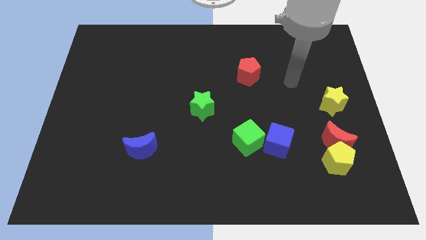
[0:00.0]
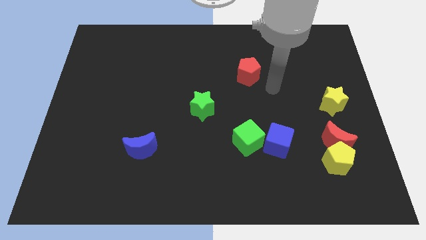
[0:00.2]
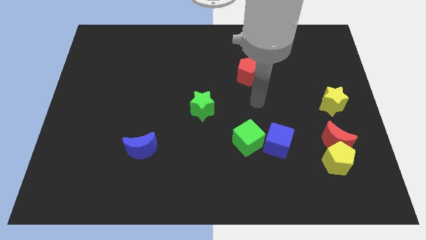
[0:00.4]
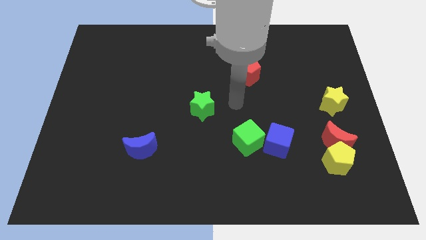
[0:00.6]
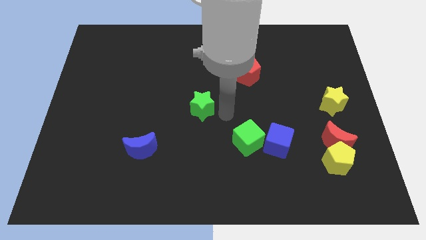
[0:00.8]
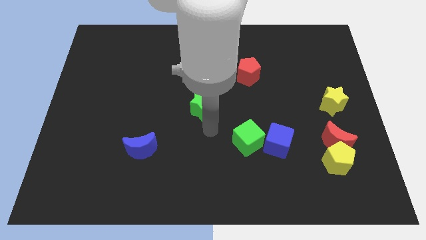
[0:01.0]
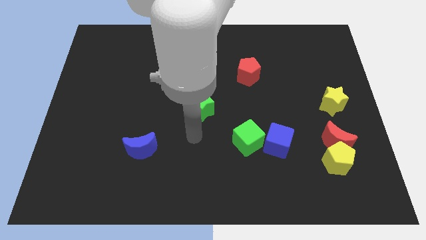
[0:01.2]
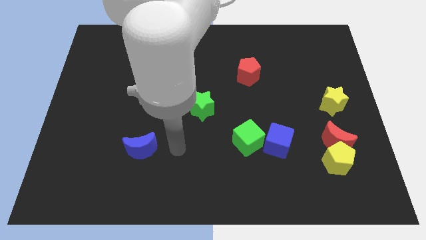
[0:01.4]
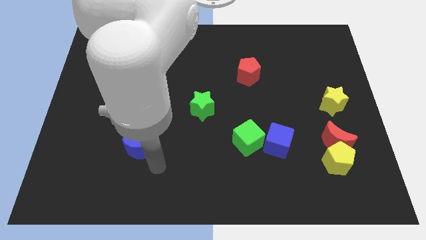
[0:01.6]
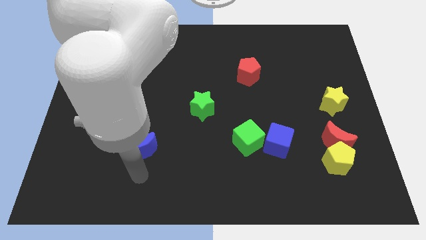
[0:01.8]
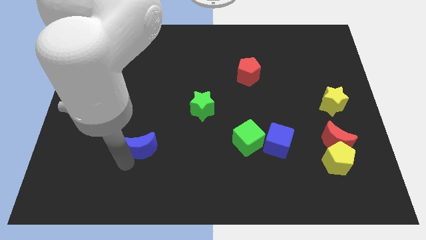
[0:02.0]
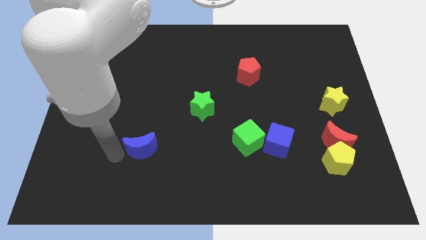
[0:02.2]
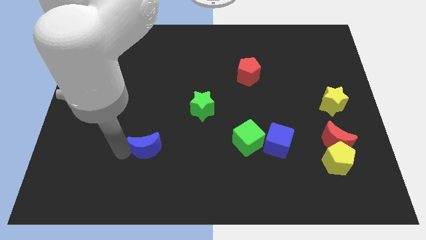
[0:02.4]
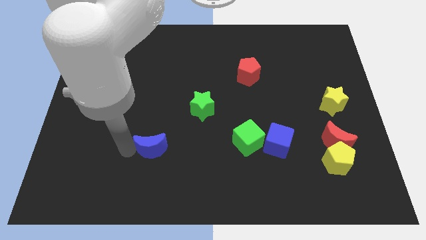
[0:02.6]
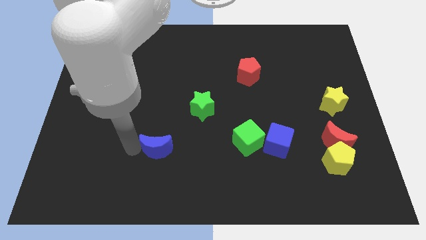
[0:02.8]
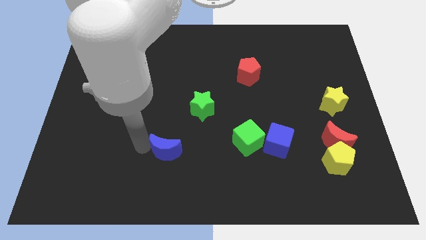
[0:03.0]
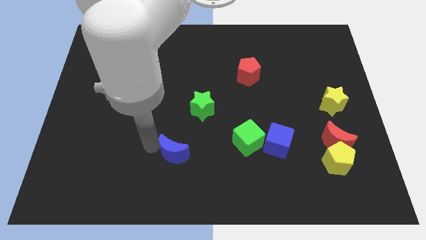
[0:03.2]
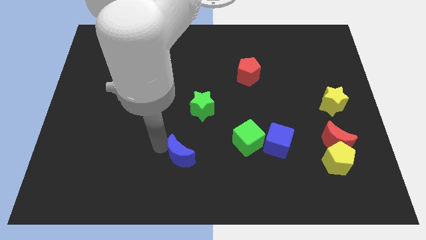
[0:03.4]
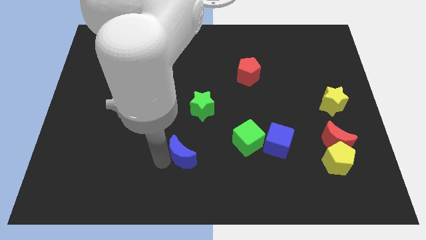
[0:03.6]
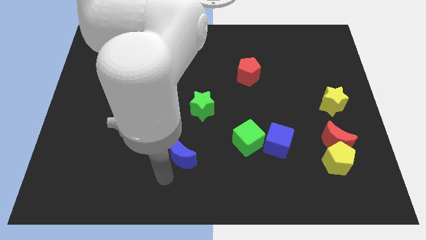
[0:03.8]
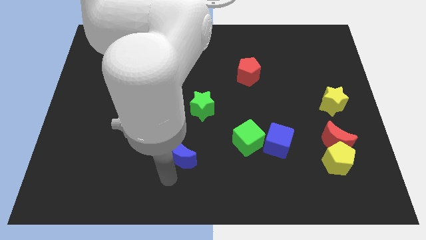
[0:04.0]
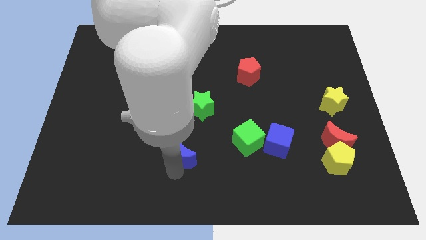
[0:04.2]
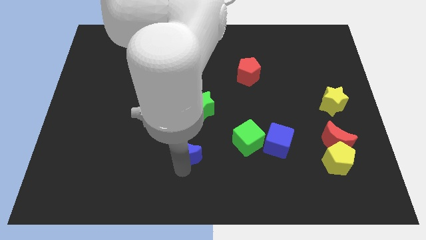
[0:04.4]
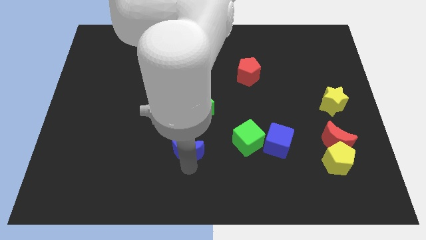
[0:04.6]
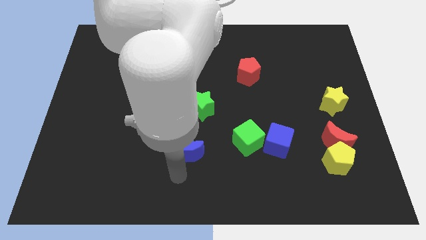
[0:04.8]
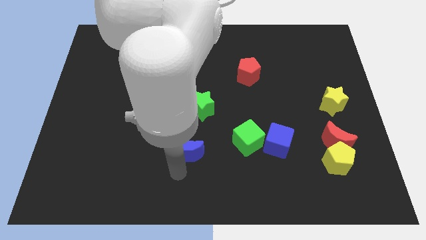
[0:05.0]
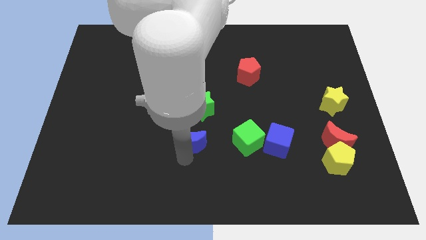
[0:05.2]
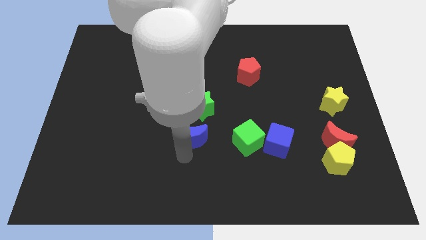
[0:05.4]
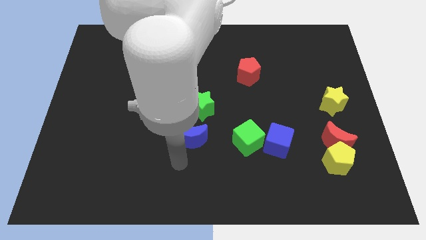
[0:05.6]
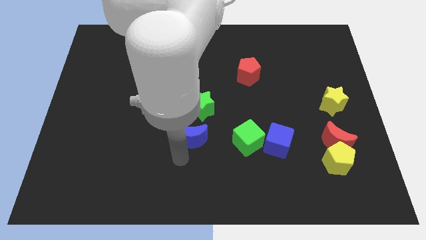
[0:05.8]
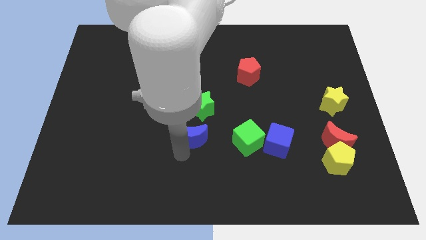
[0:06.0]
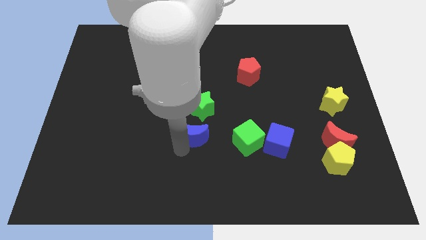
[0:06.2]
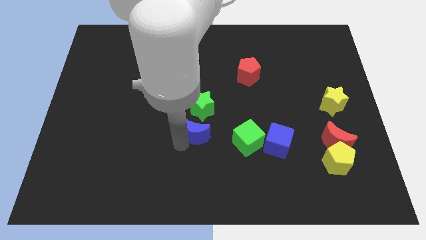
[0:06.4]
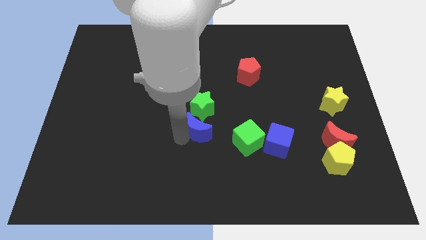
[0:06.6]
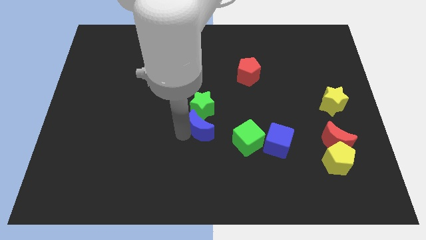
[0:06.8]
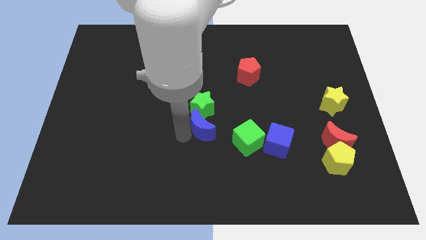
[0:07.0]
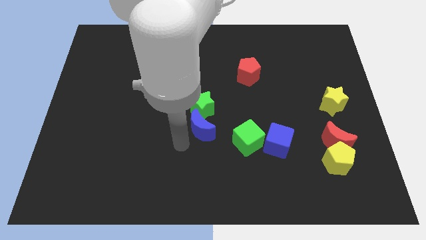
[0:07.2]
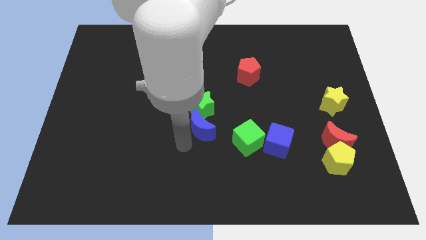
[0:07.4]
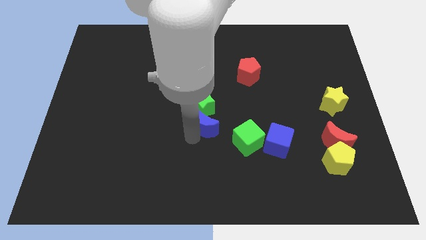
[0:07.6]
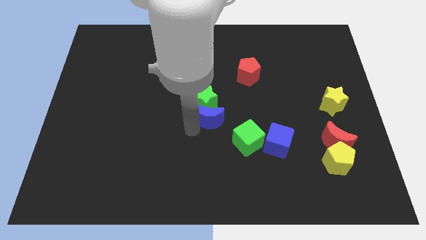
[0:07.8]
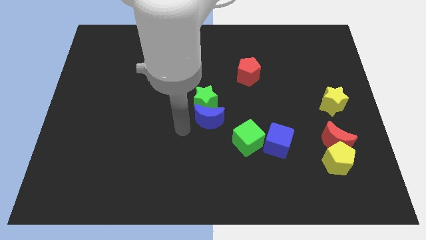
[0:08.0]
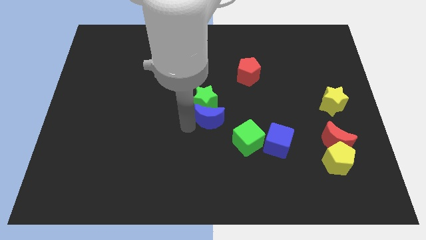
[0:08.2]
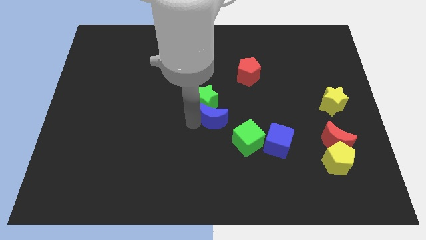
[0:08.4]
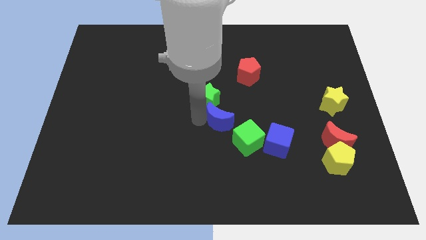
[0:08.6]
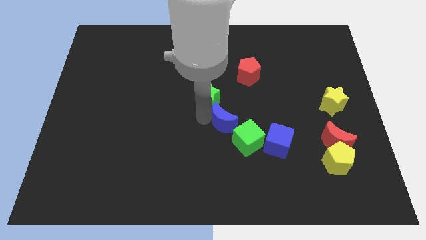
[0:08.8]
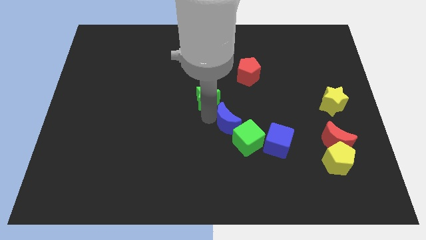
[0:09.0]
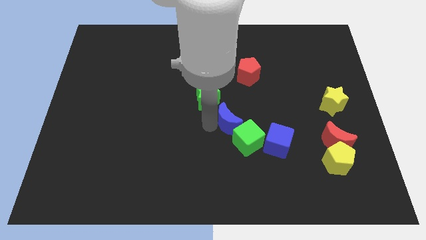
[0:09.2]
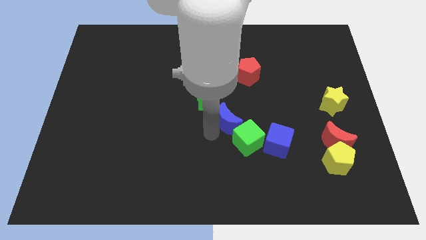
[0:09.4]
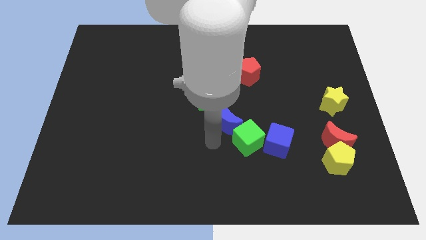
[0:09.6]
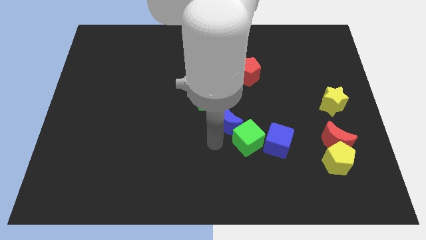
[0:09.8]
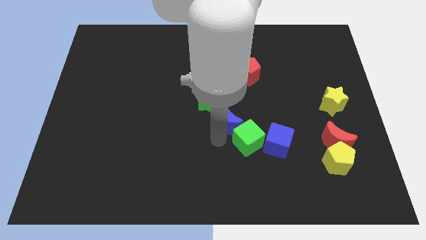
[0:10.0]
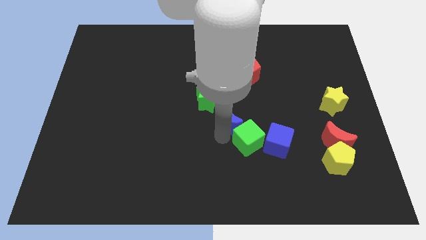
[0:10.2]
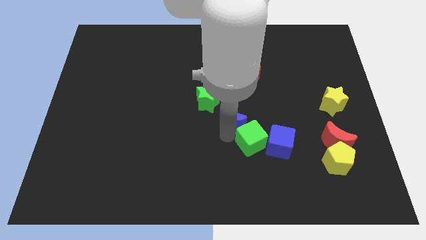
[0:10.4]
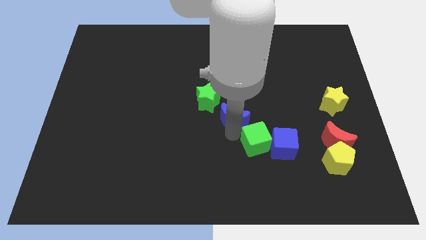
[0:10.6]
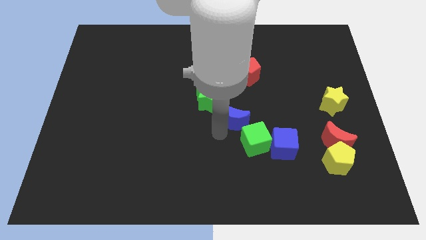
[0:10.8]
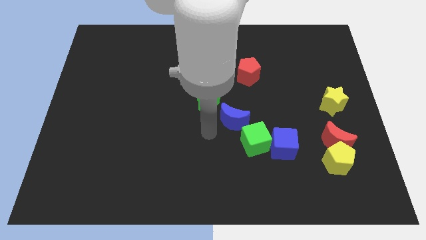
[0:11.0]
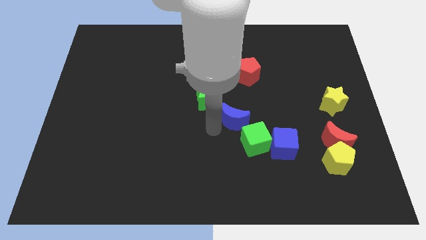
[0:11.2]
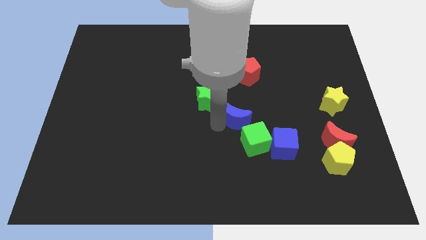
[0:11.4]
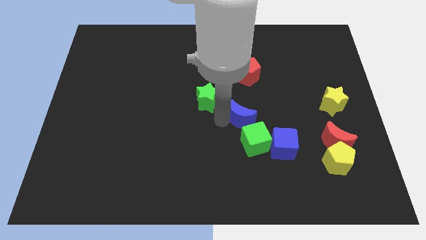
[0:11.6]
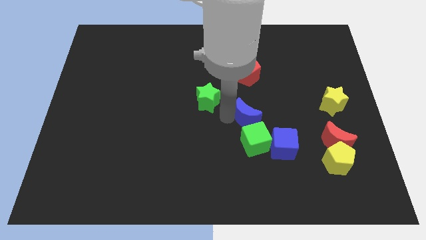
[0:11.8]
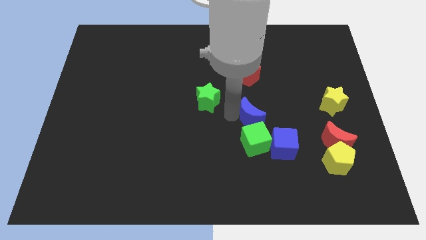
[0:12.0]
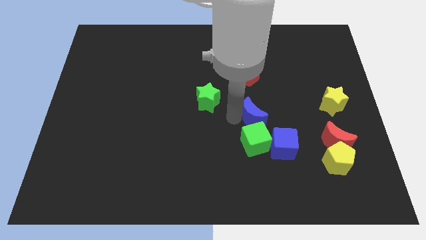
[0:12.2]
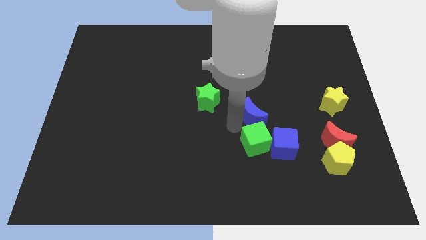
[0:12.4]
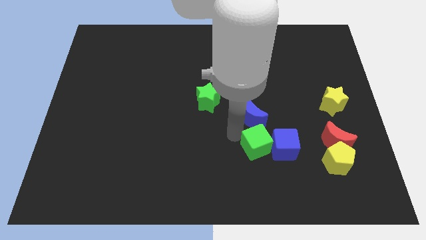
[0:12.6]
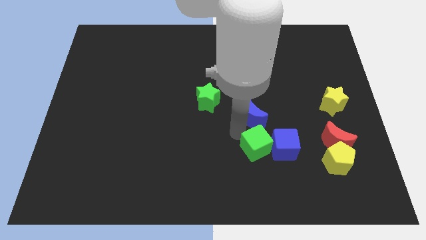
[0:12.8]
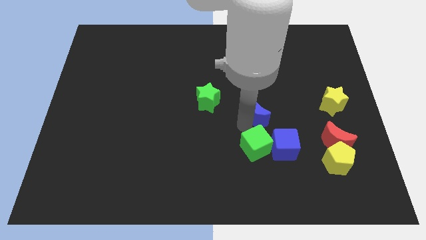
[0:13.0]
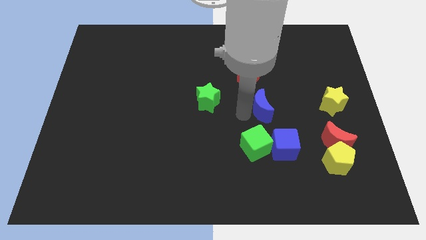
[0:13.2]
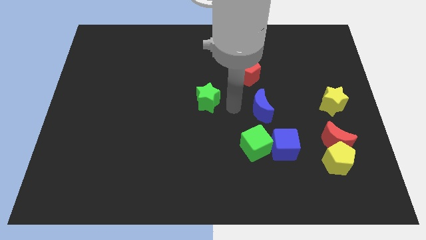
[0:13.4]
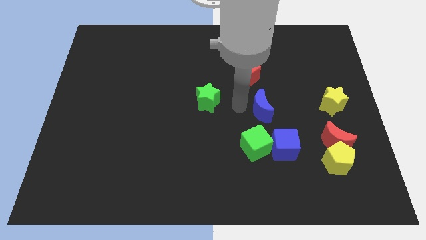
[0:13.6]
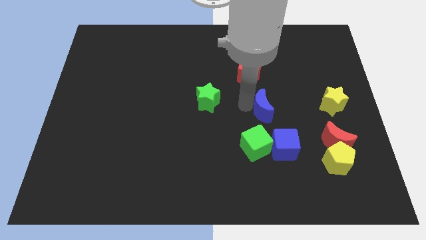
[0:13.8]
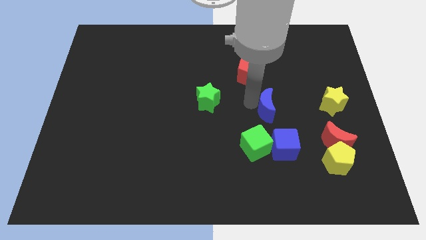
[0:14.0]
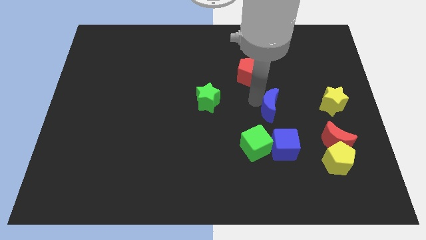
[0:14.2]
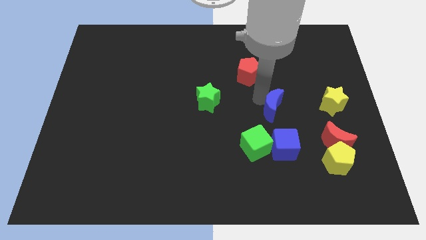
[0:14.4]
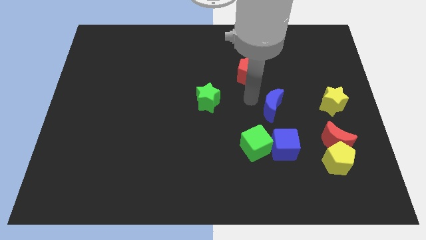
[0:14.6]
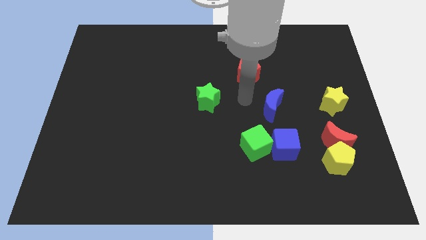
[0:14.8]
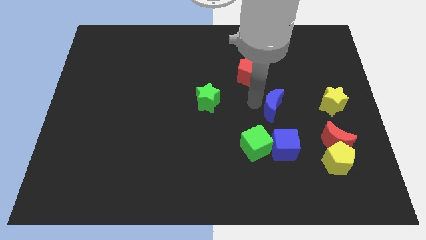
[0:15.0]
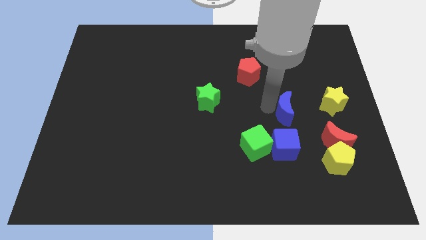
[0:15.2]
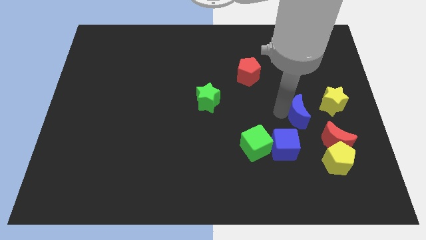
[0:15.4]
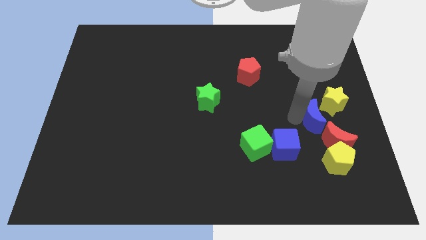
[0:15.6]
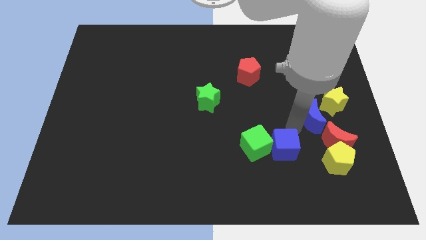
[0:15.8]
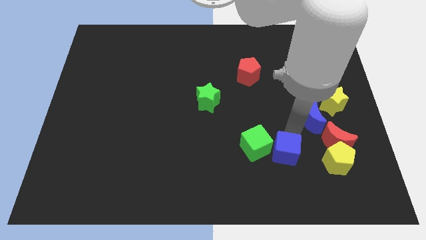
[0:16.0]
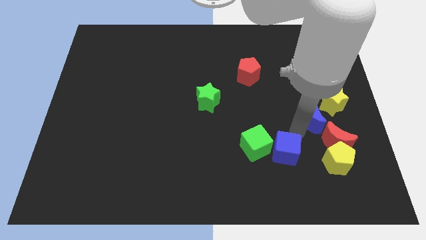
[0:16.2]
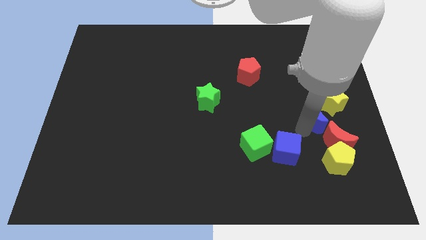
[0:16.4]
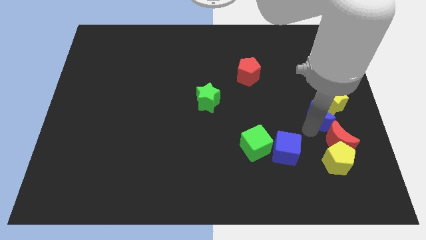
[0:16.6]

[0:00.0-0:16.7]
push the blue moon next to the yellow star
